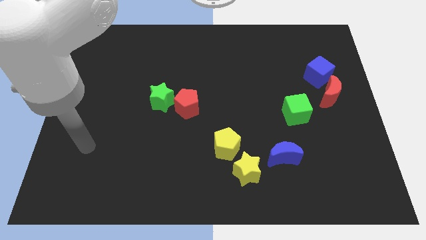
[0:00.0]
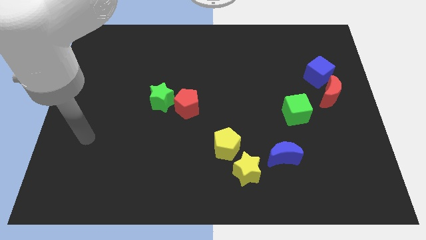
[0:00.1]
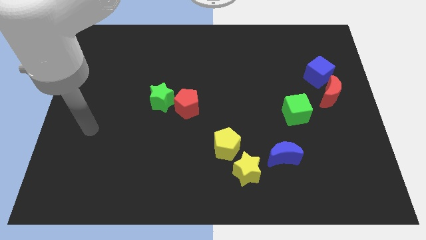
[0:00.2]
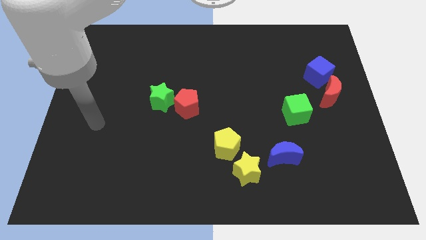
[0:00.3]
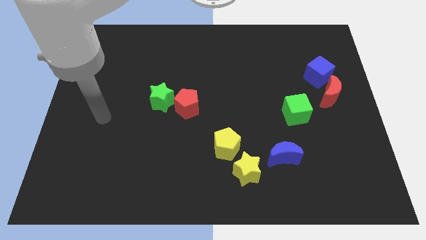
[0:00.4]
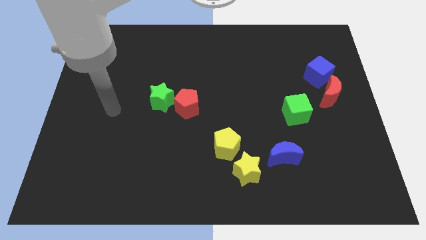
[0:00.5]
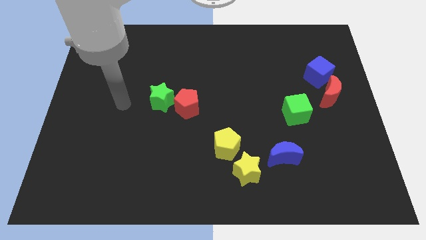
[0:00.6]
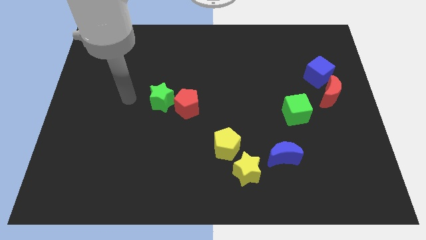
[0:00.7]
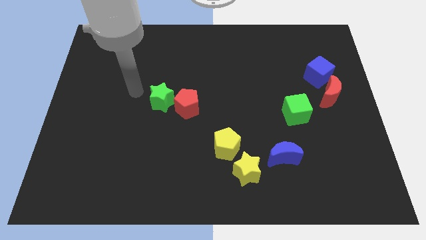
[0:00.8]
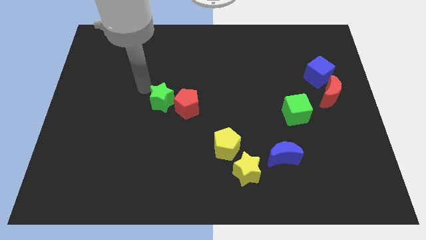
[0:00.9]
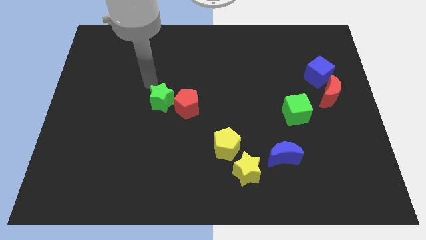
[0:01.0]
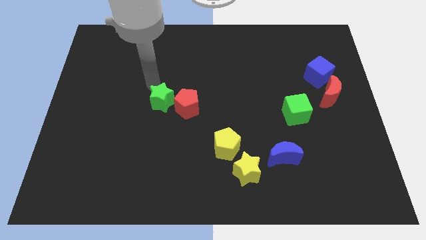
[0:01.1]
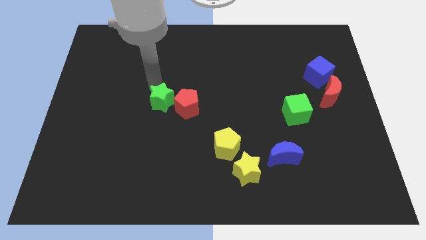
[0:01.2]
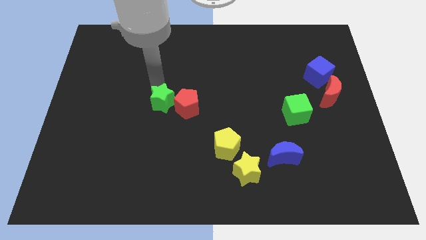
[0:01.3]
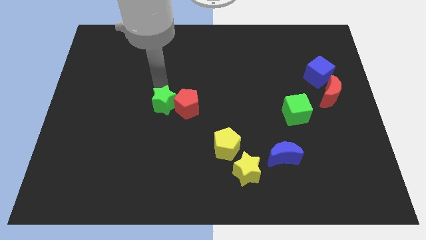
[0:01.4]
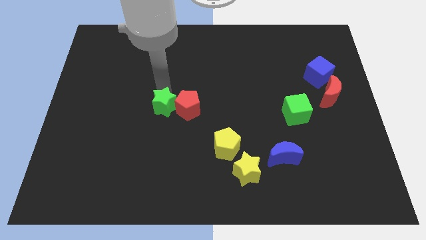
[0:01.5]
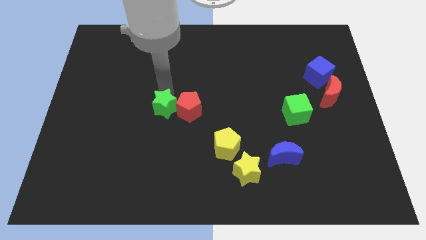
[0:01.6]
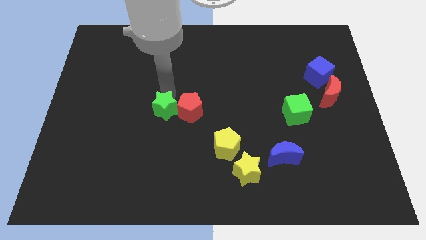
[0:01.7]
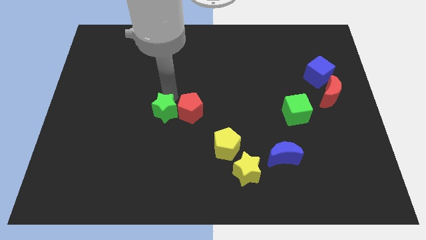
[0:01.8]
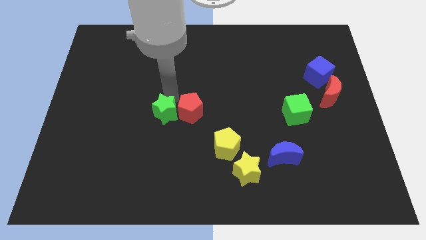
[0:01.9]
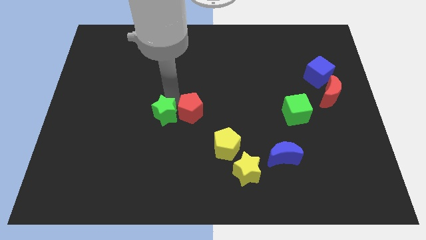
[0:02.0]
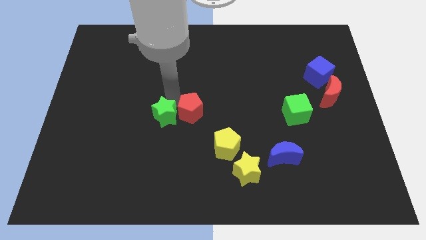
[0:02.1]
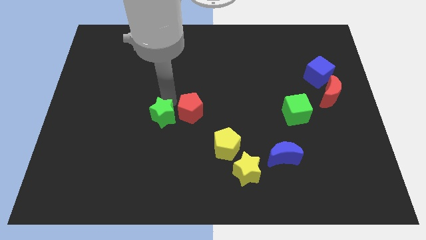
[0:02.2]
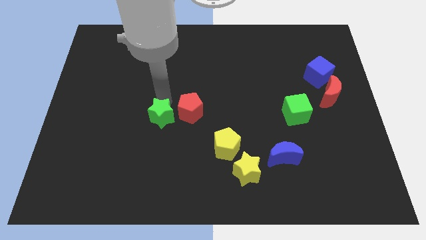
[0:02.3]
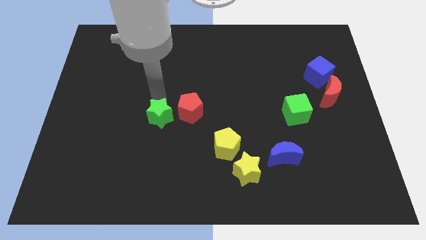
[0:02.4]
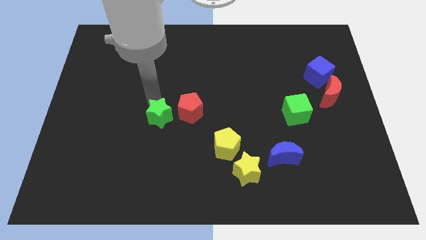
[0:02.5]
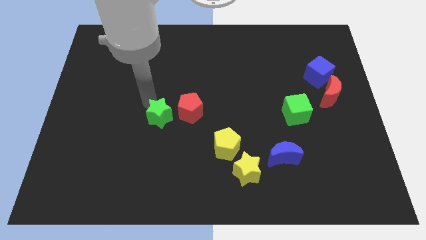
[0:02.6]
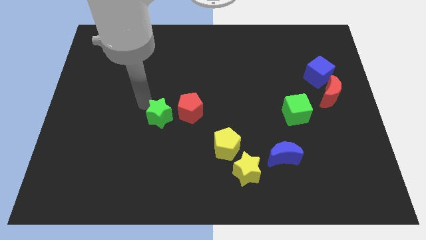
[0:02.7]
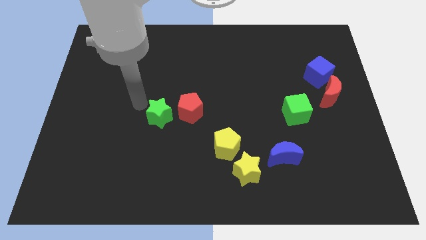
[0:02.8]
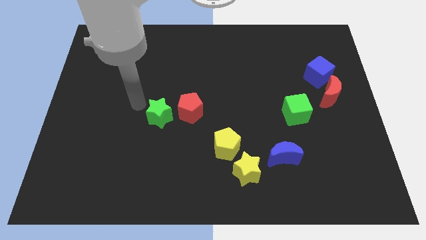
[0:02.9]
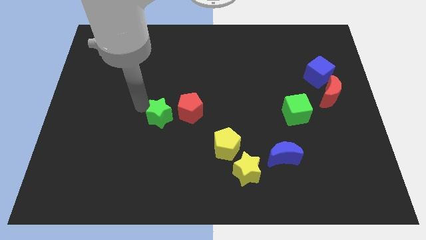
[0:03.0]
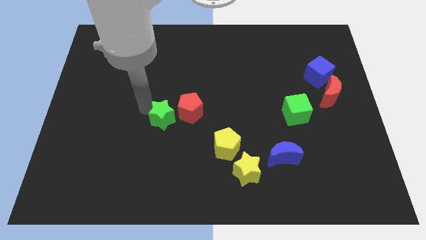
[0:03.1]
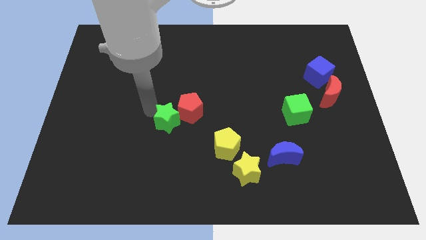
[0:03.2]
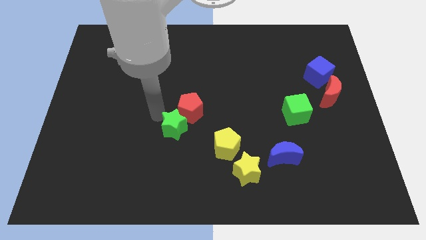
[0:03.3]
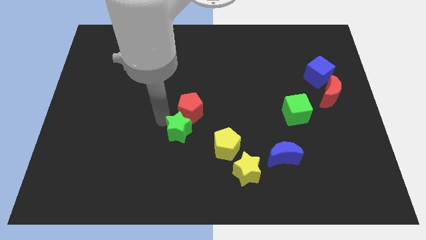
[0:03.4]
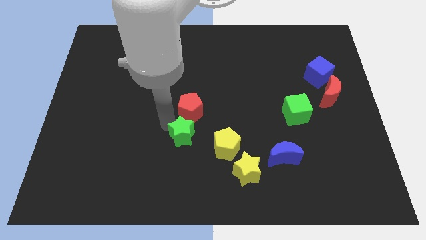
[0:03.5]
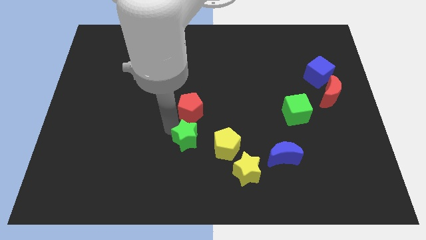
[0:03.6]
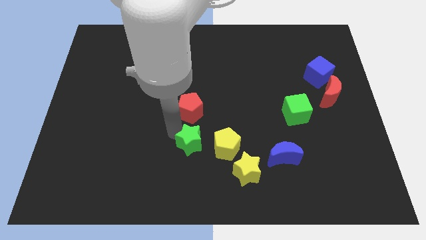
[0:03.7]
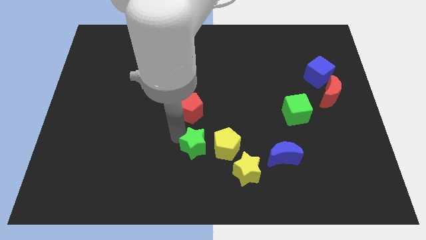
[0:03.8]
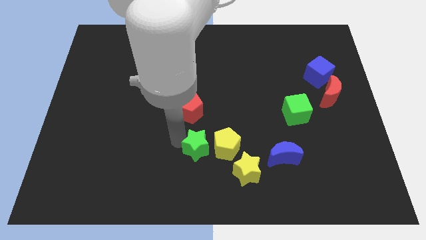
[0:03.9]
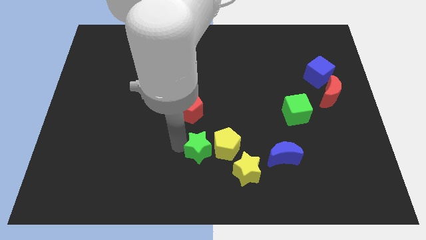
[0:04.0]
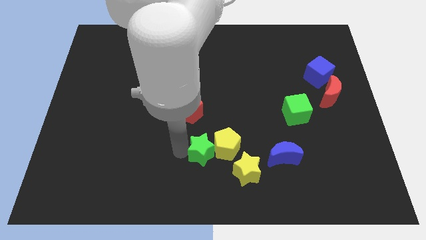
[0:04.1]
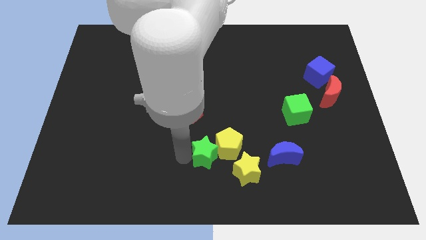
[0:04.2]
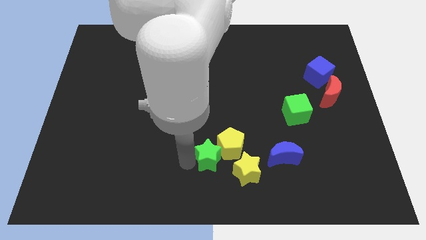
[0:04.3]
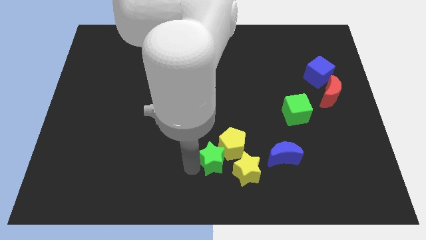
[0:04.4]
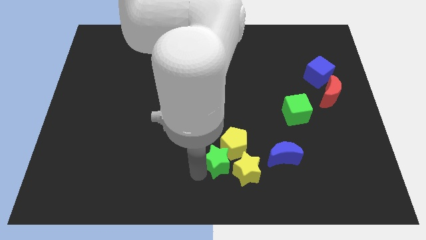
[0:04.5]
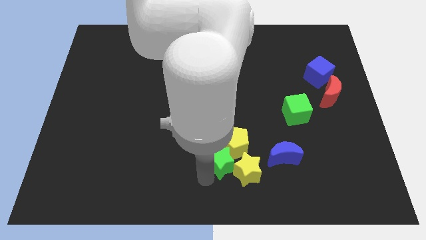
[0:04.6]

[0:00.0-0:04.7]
slide the green star close to the yellow star

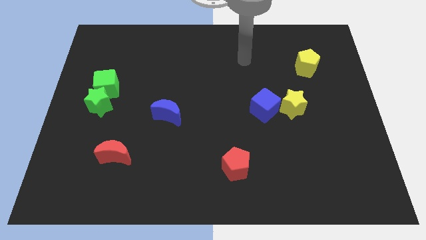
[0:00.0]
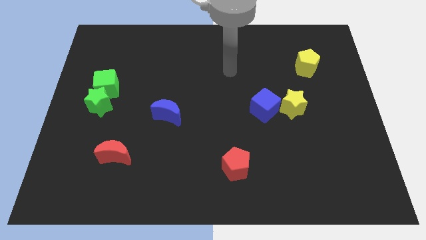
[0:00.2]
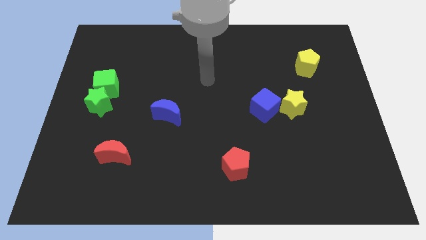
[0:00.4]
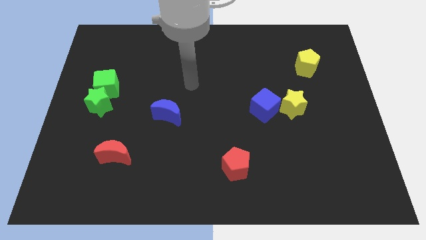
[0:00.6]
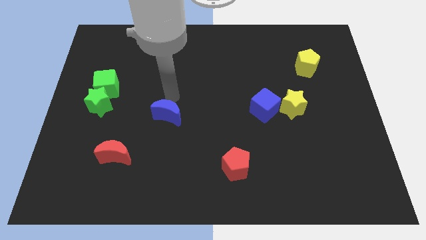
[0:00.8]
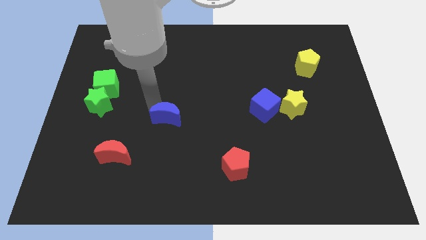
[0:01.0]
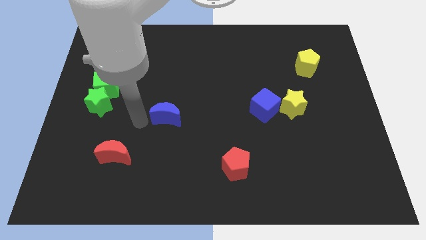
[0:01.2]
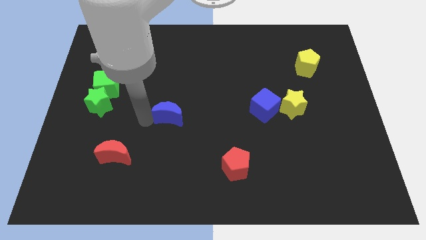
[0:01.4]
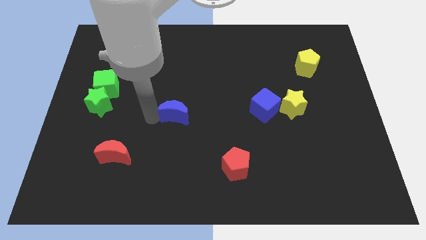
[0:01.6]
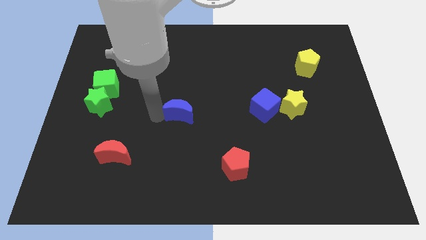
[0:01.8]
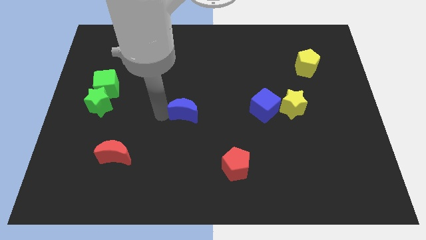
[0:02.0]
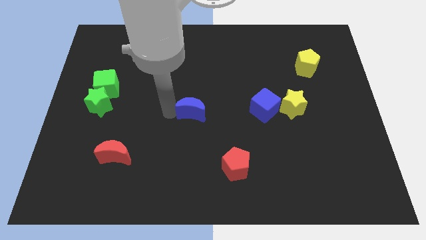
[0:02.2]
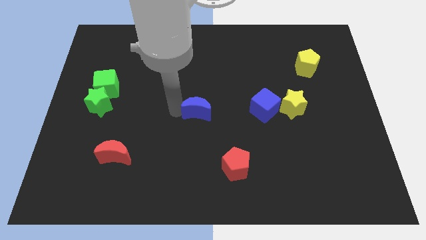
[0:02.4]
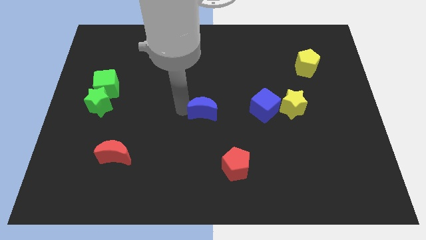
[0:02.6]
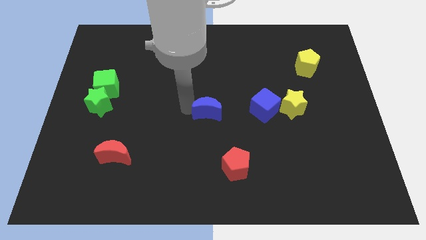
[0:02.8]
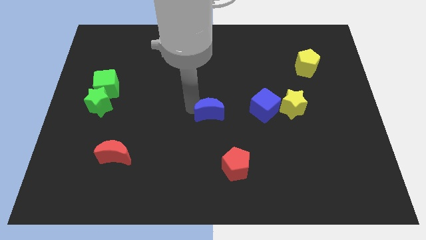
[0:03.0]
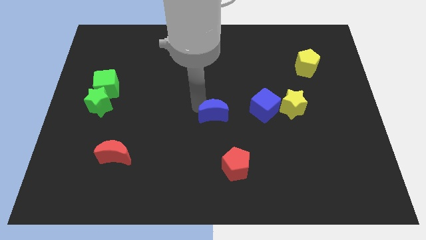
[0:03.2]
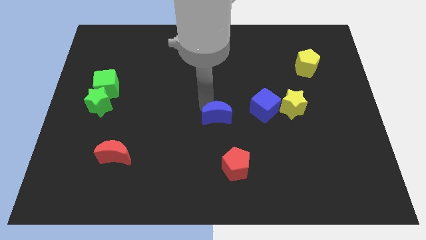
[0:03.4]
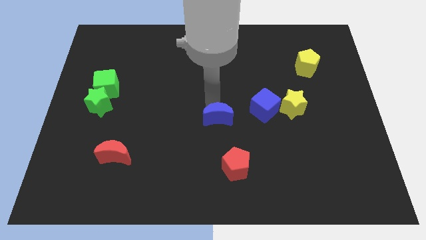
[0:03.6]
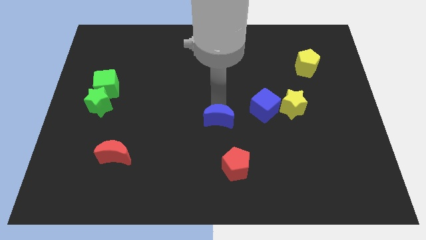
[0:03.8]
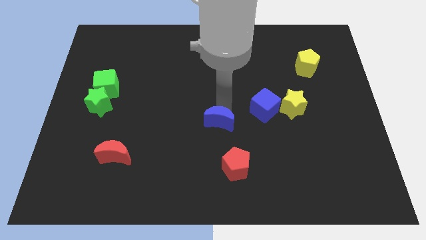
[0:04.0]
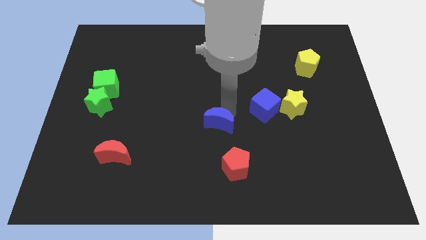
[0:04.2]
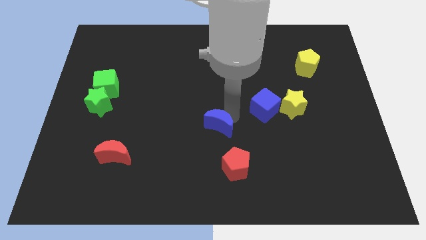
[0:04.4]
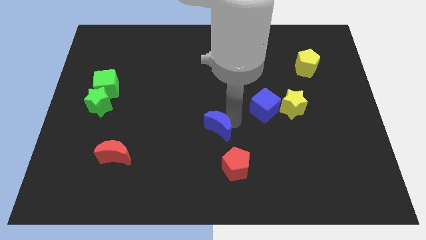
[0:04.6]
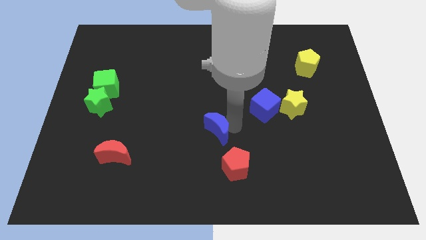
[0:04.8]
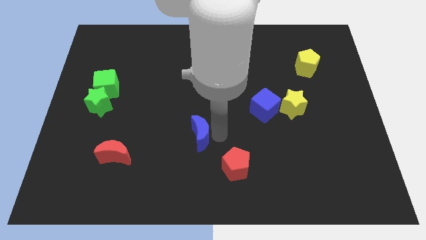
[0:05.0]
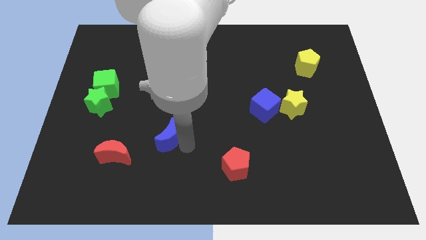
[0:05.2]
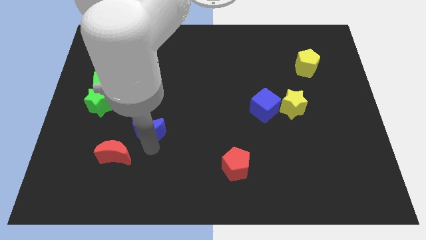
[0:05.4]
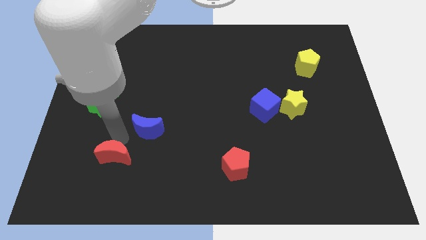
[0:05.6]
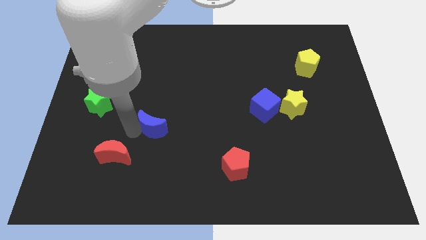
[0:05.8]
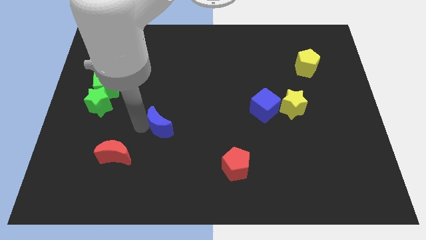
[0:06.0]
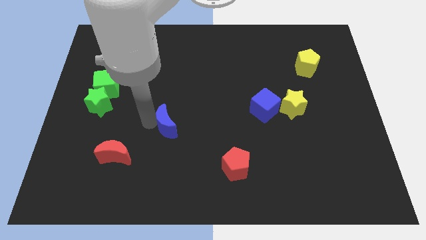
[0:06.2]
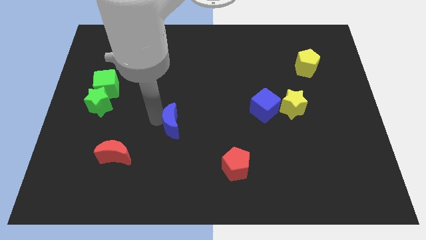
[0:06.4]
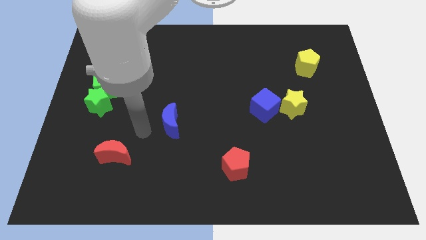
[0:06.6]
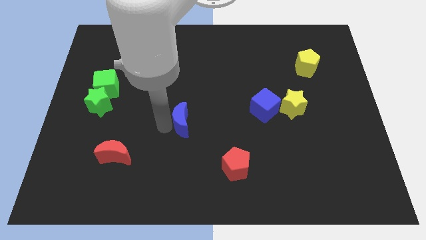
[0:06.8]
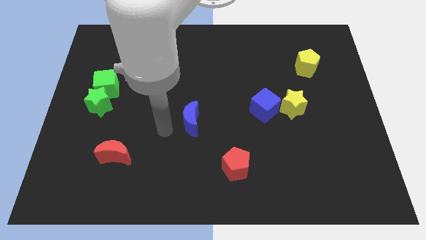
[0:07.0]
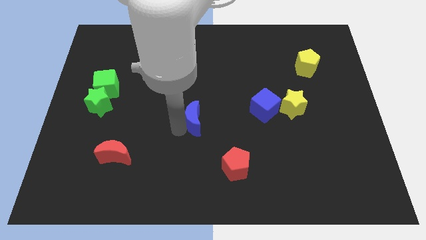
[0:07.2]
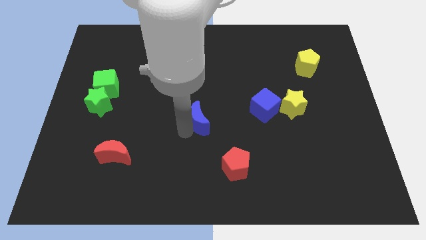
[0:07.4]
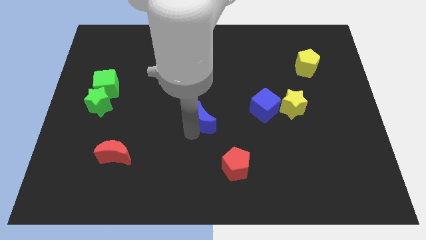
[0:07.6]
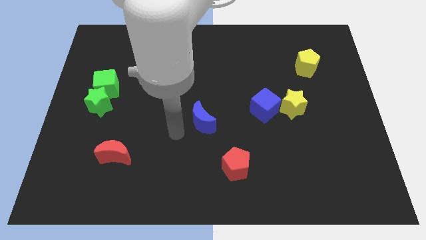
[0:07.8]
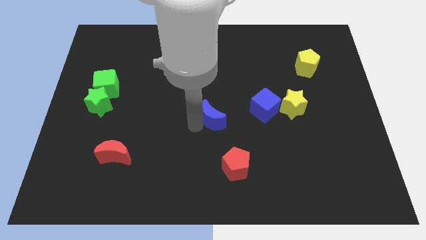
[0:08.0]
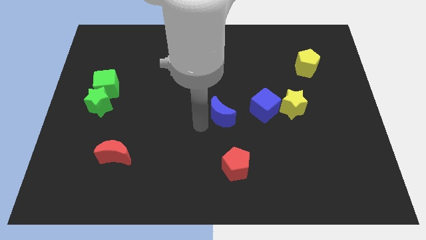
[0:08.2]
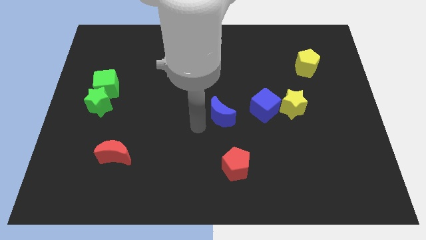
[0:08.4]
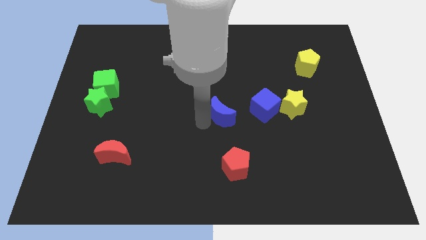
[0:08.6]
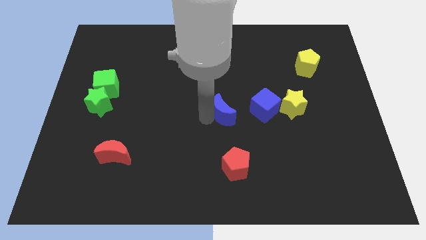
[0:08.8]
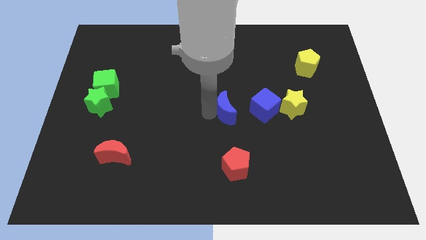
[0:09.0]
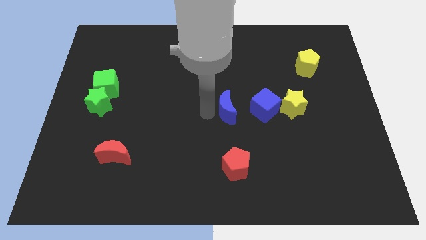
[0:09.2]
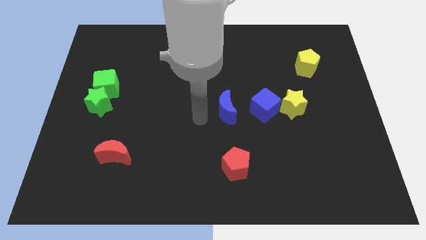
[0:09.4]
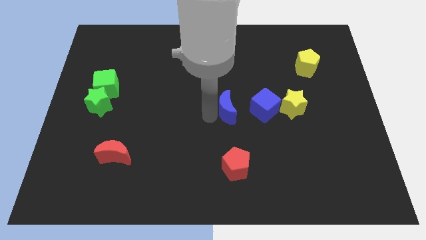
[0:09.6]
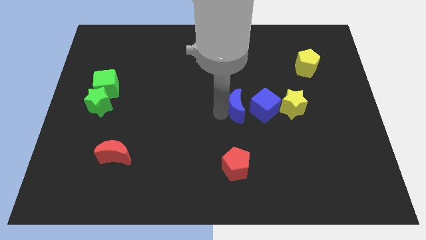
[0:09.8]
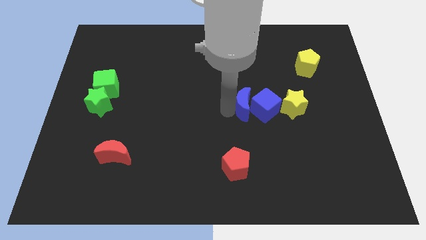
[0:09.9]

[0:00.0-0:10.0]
move the blue moon towards the blue cube
